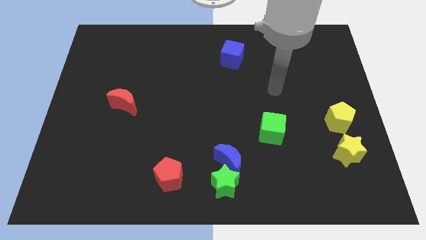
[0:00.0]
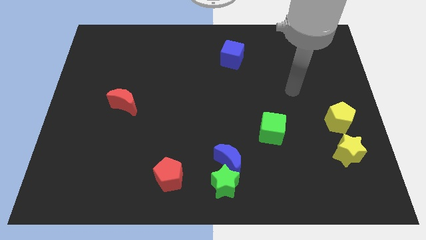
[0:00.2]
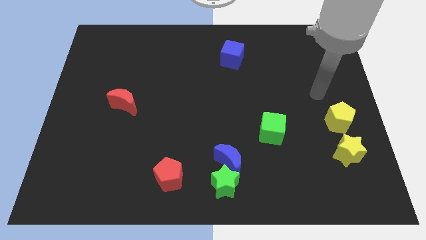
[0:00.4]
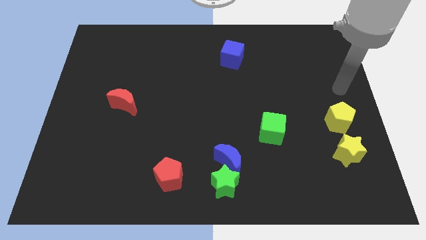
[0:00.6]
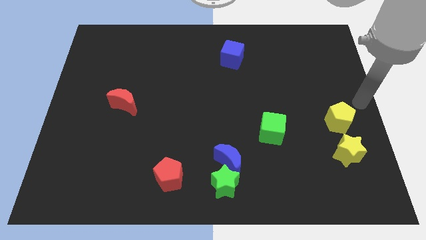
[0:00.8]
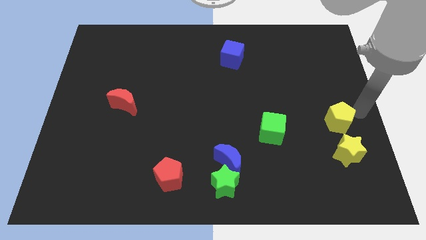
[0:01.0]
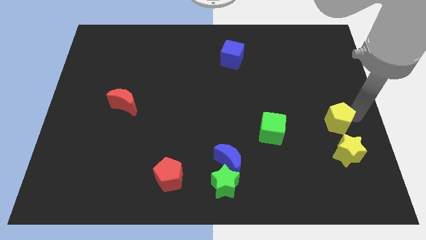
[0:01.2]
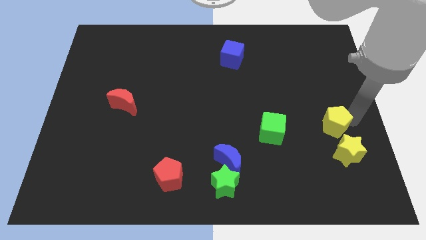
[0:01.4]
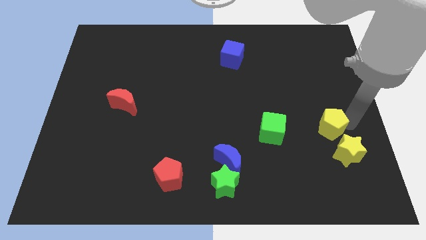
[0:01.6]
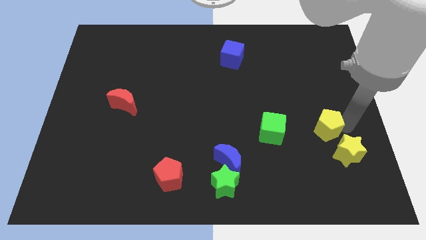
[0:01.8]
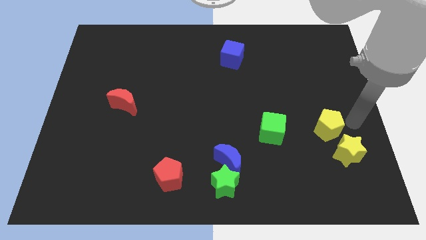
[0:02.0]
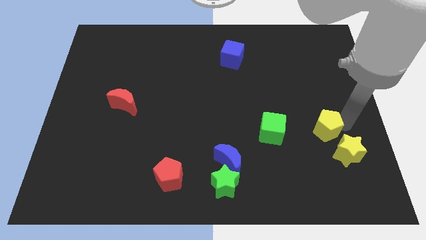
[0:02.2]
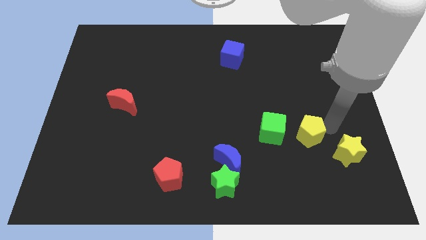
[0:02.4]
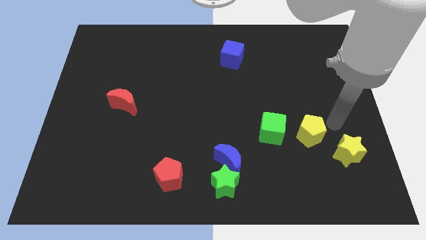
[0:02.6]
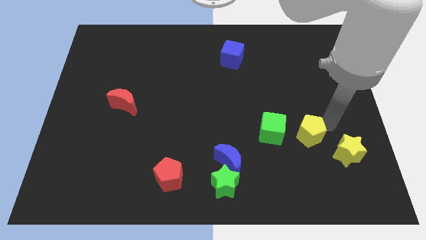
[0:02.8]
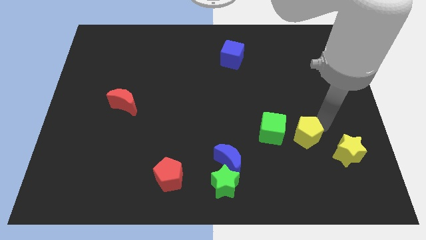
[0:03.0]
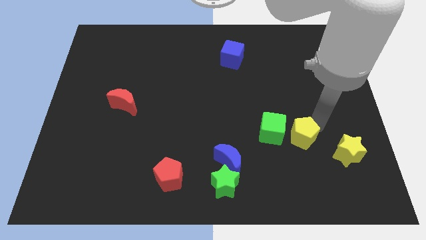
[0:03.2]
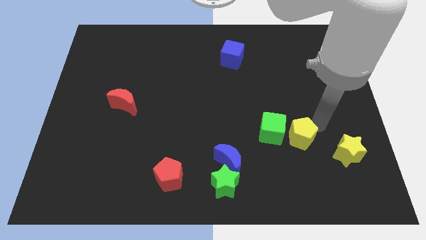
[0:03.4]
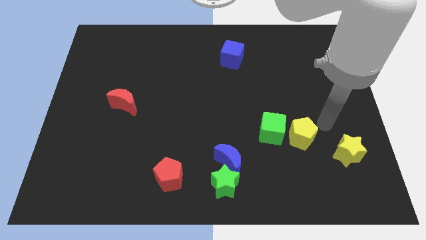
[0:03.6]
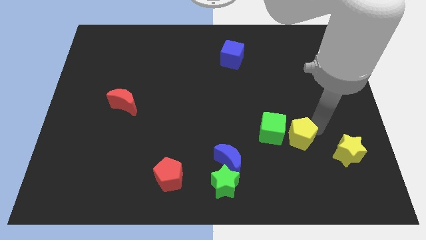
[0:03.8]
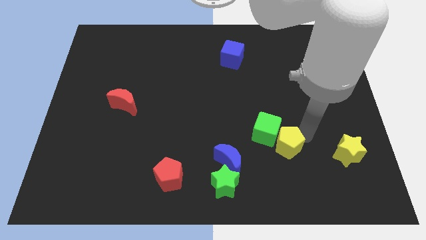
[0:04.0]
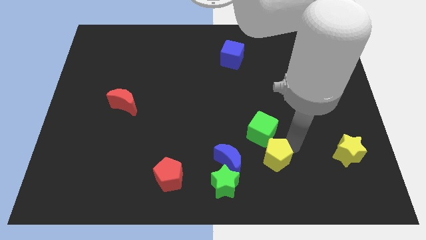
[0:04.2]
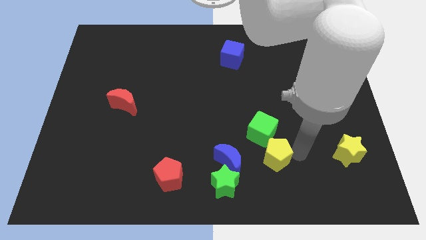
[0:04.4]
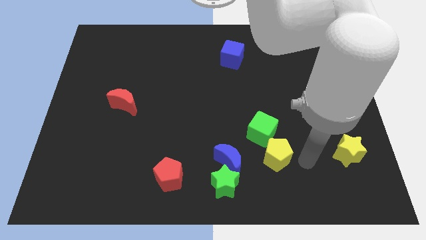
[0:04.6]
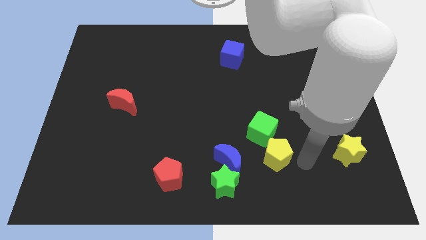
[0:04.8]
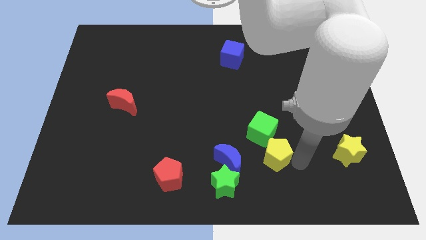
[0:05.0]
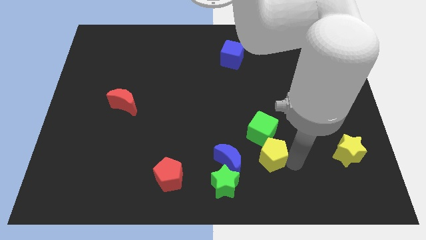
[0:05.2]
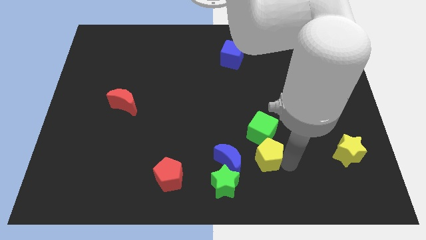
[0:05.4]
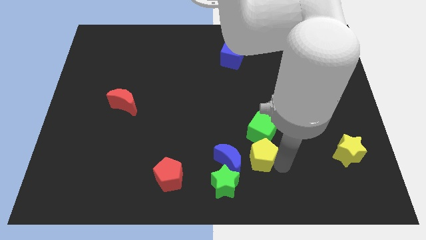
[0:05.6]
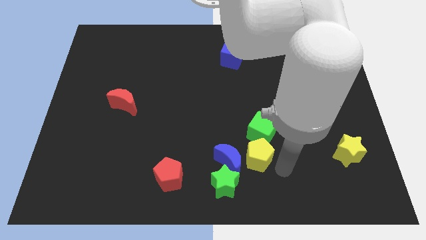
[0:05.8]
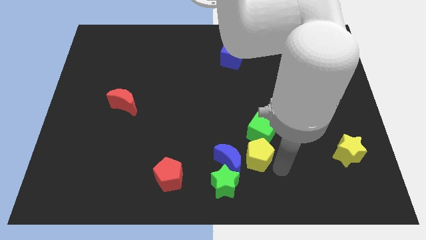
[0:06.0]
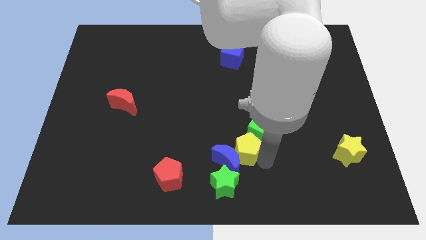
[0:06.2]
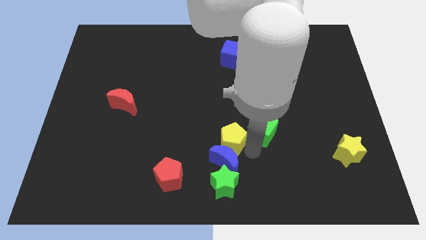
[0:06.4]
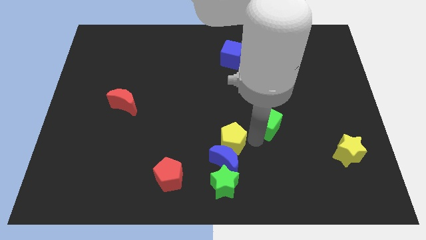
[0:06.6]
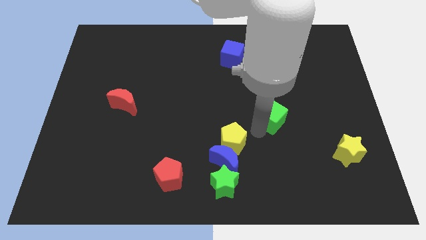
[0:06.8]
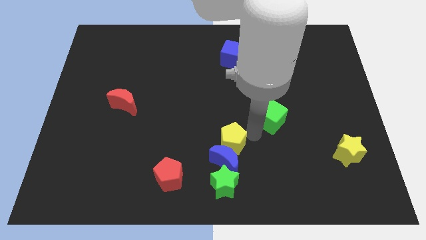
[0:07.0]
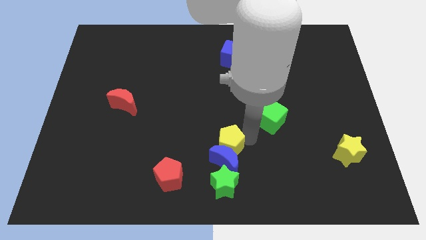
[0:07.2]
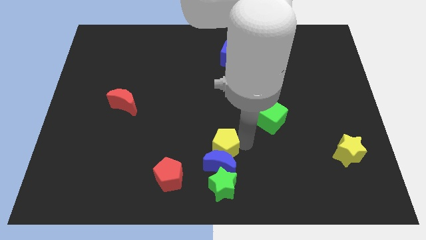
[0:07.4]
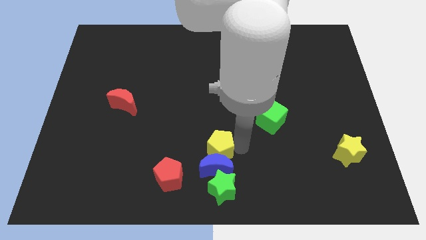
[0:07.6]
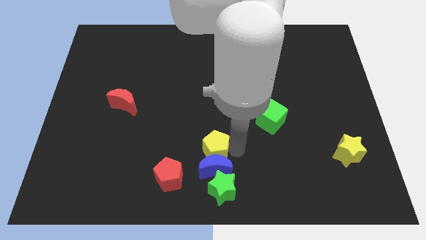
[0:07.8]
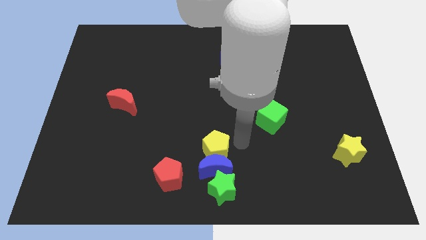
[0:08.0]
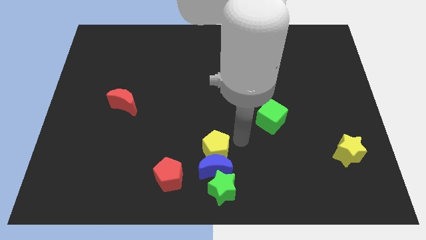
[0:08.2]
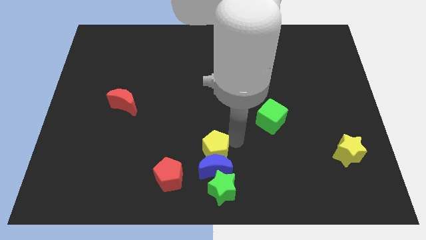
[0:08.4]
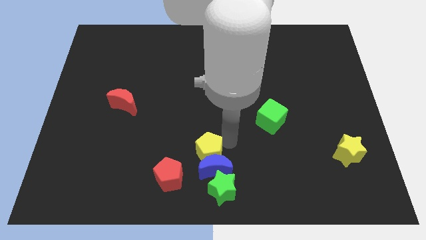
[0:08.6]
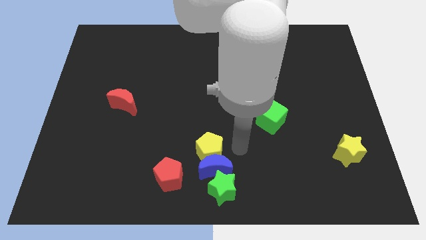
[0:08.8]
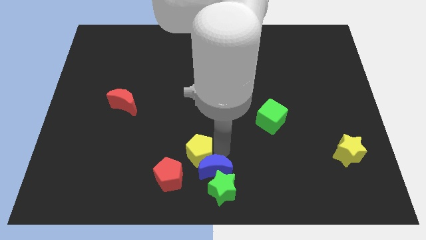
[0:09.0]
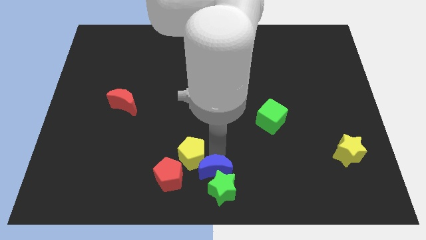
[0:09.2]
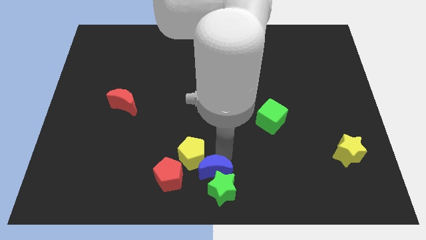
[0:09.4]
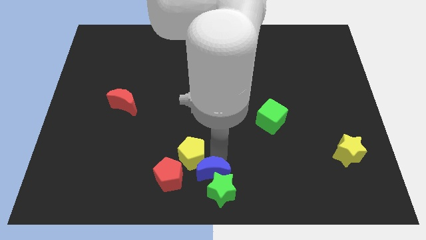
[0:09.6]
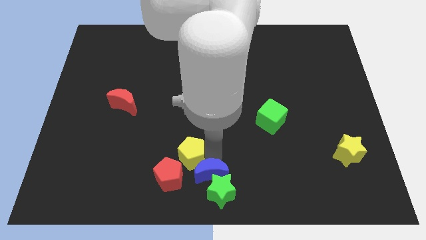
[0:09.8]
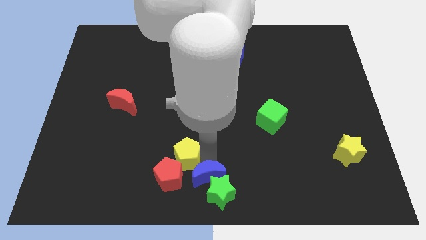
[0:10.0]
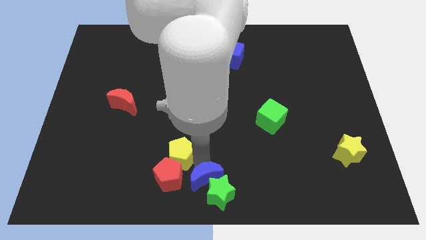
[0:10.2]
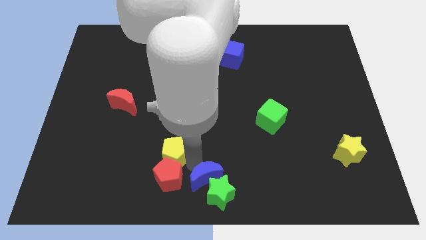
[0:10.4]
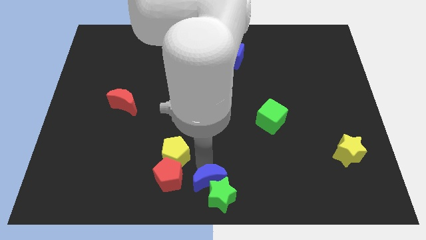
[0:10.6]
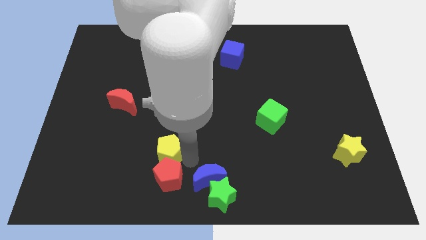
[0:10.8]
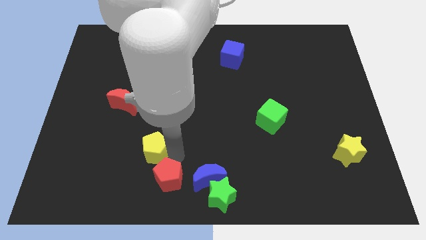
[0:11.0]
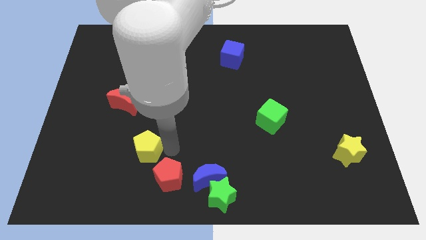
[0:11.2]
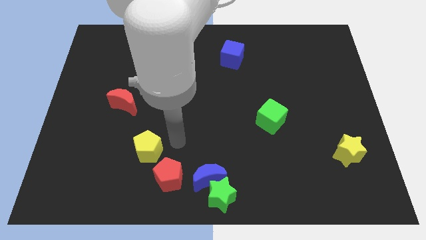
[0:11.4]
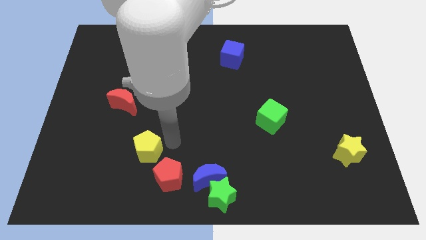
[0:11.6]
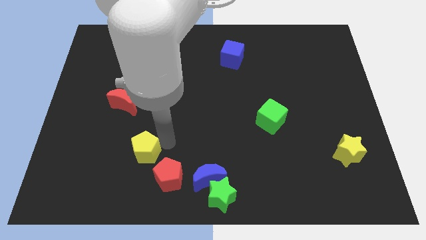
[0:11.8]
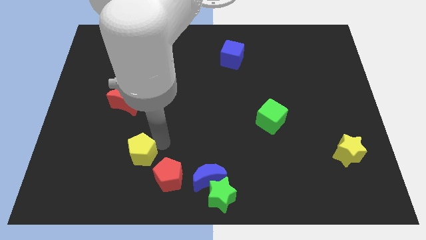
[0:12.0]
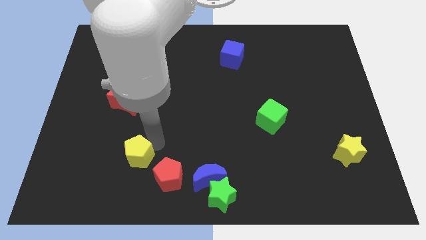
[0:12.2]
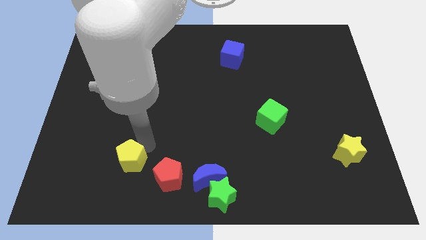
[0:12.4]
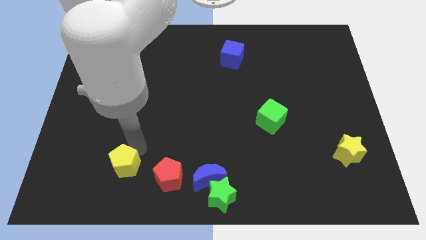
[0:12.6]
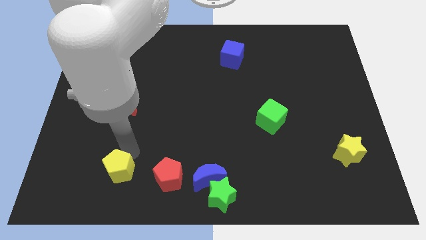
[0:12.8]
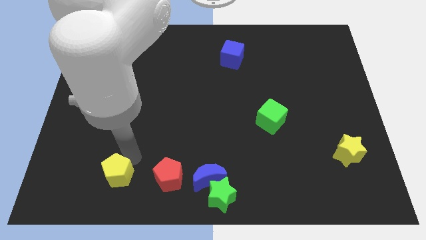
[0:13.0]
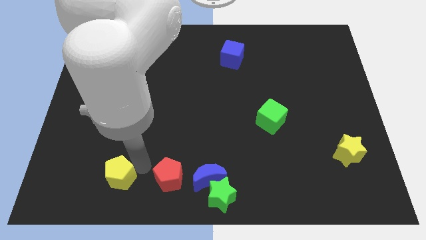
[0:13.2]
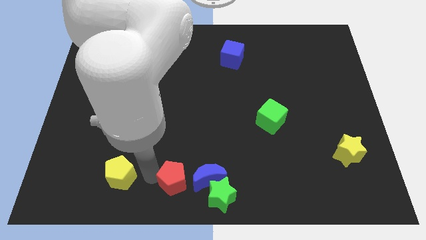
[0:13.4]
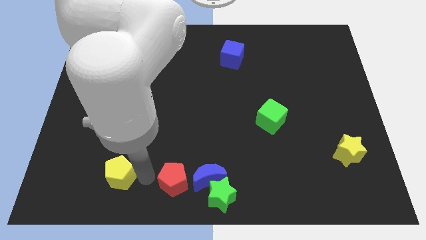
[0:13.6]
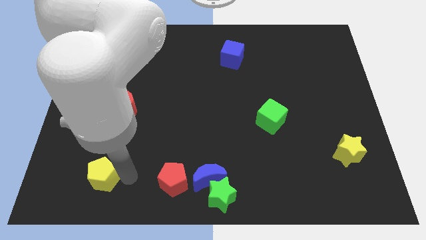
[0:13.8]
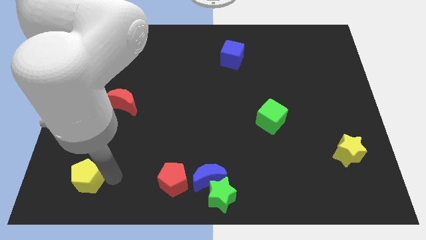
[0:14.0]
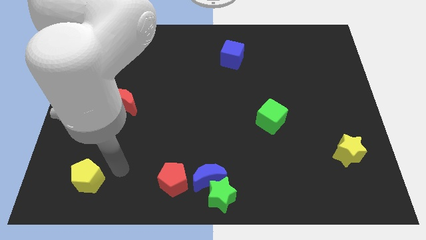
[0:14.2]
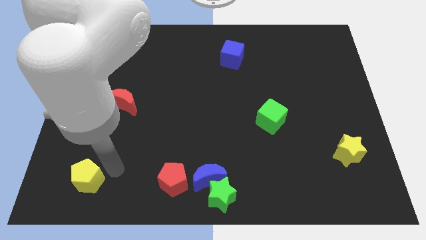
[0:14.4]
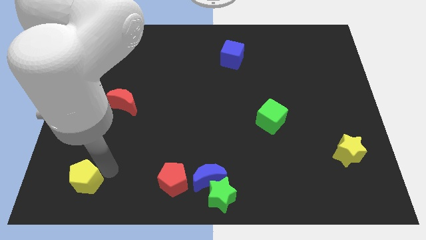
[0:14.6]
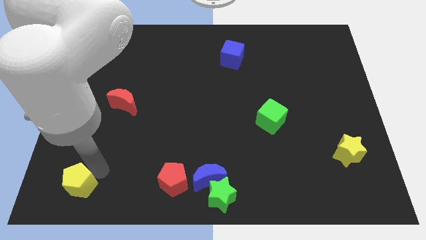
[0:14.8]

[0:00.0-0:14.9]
put the yellow pentagon to the bottom left of the board
